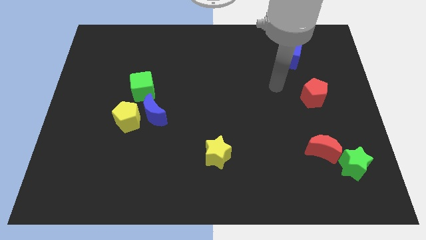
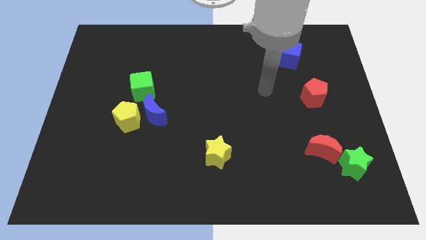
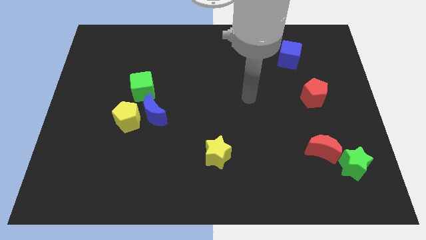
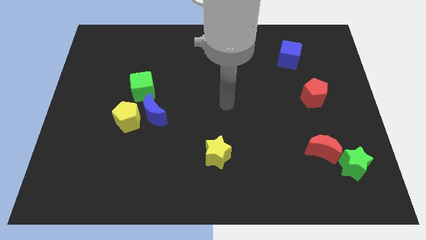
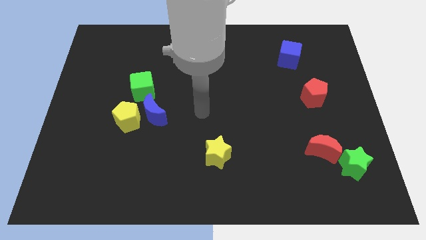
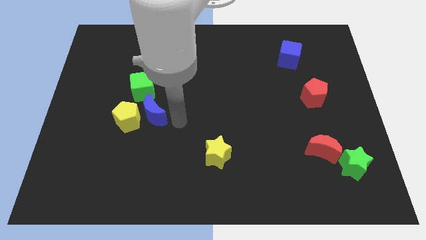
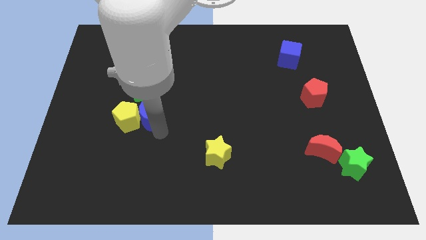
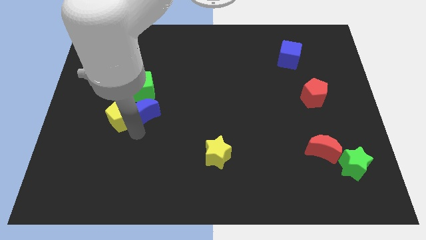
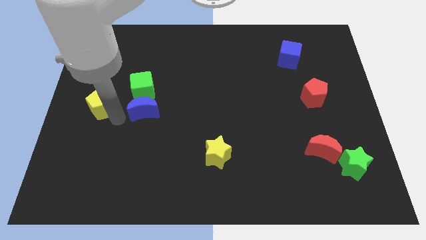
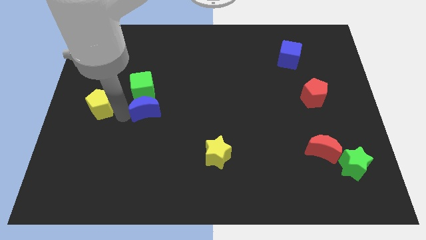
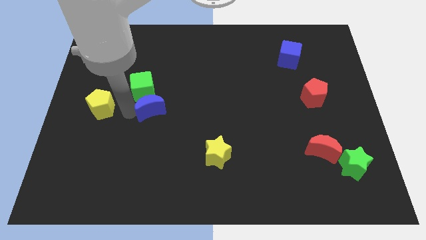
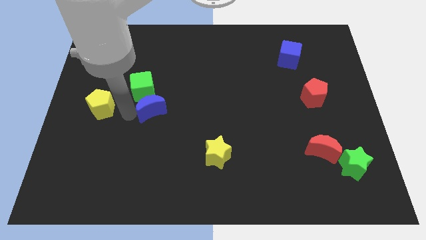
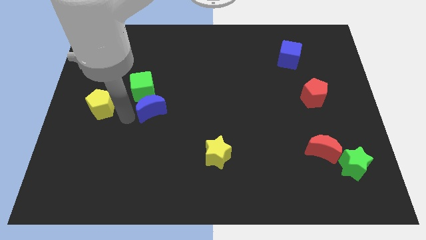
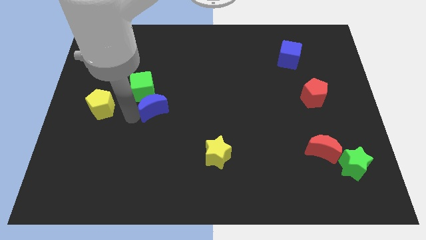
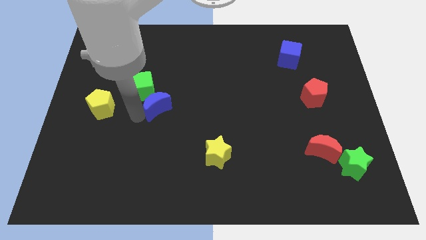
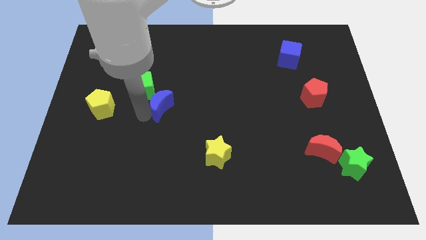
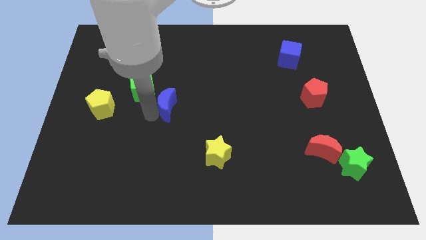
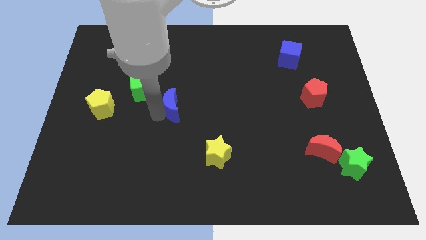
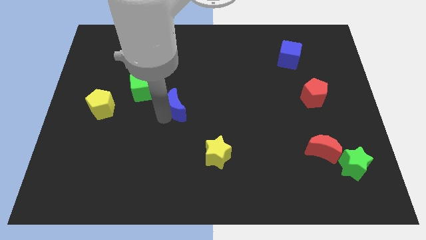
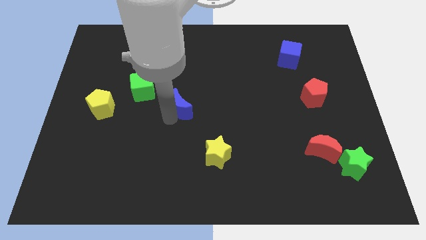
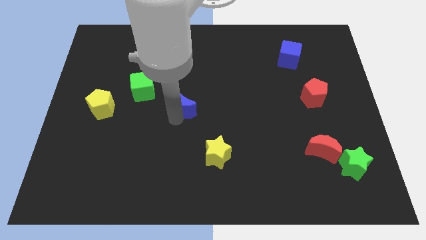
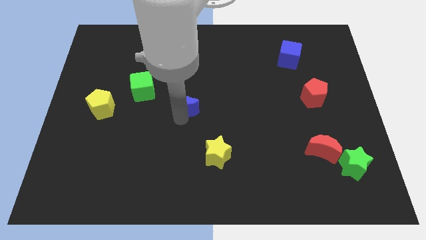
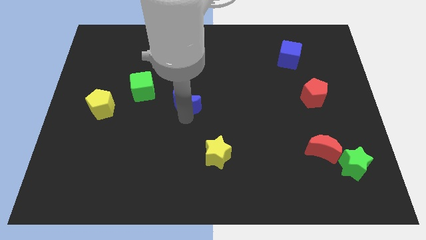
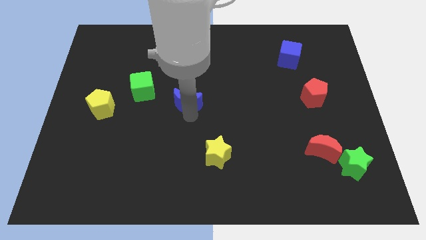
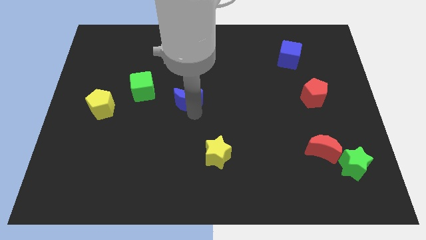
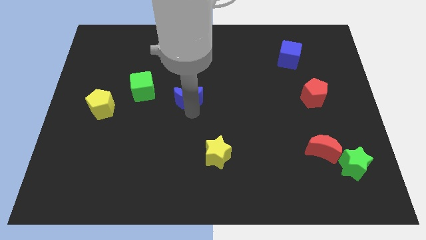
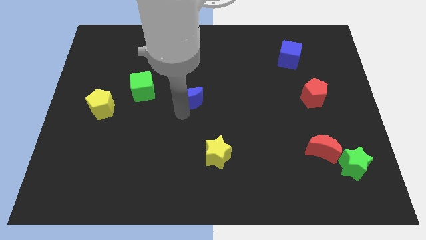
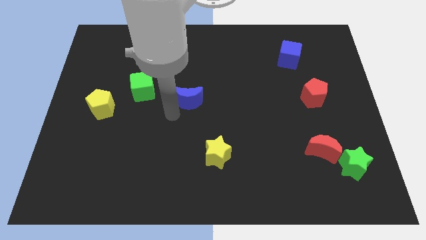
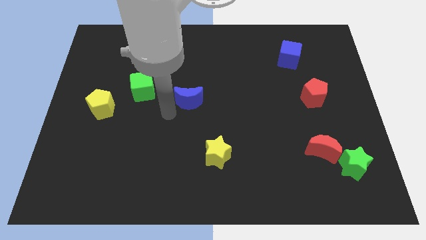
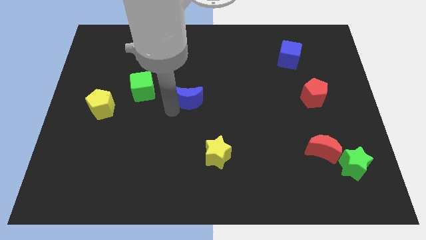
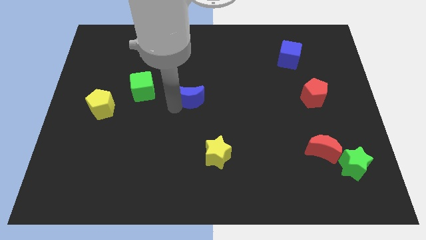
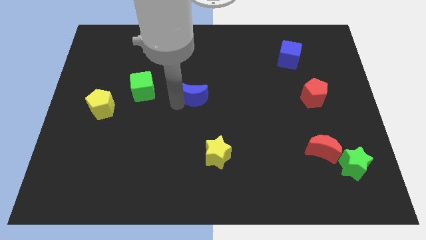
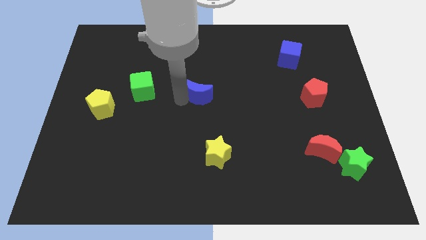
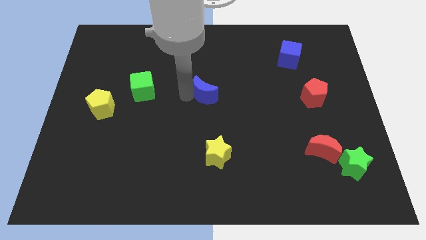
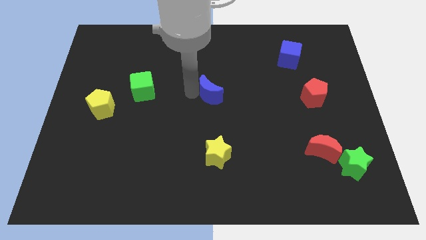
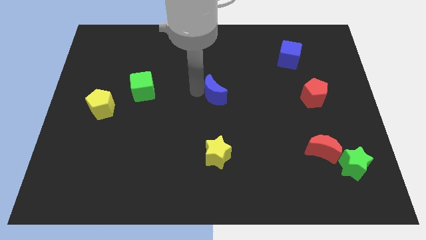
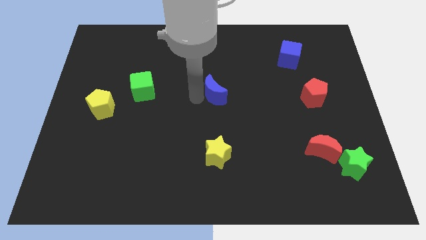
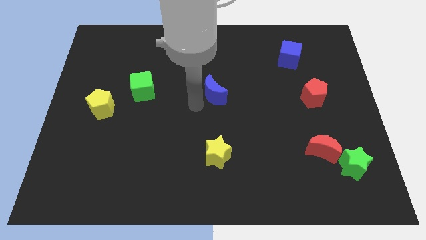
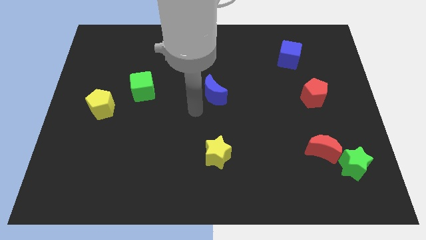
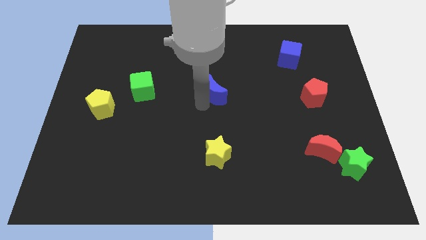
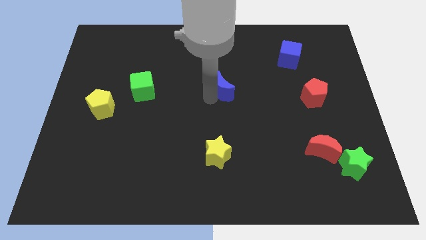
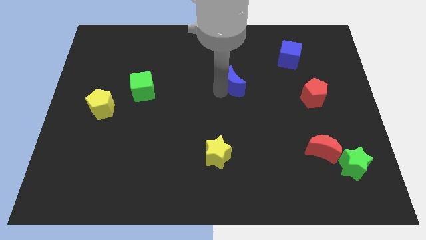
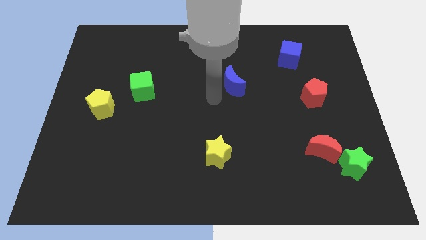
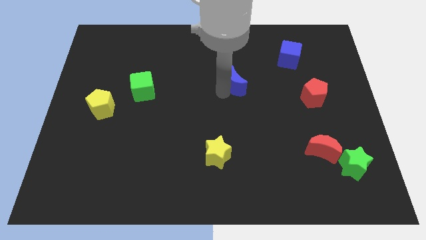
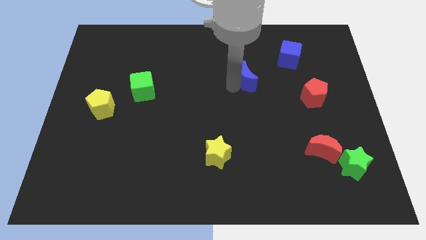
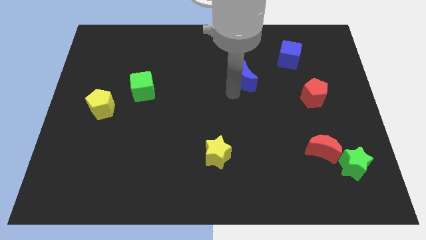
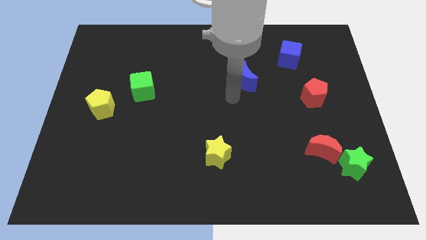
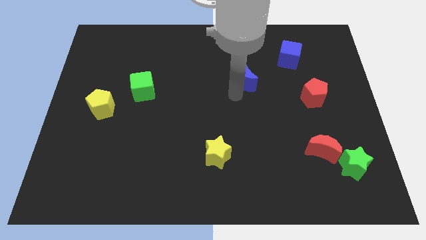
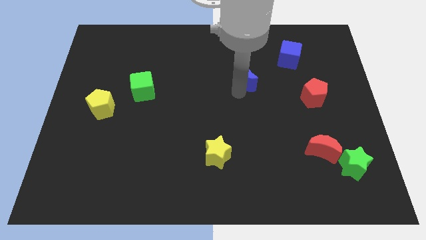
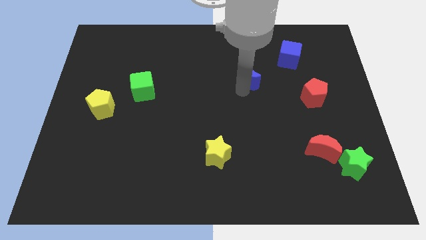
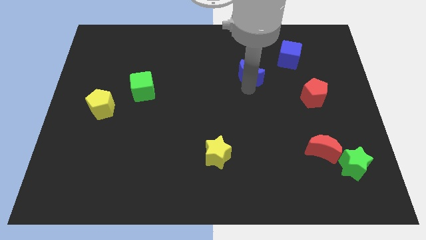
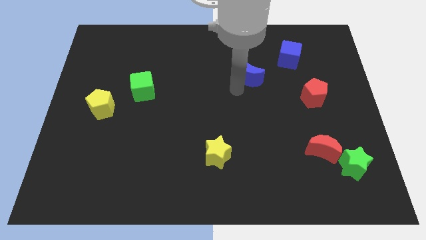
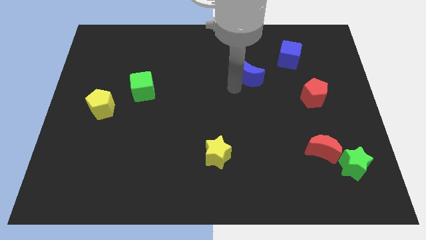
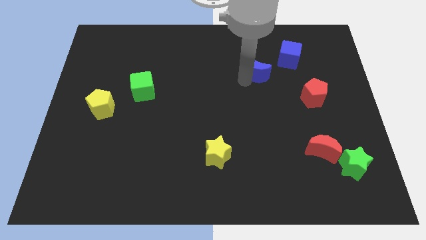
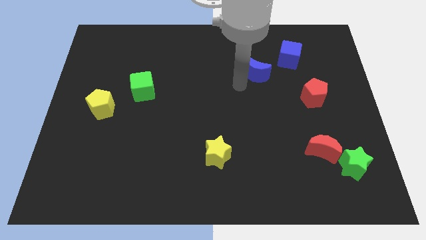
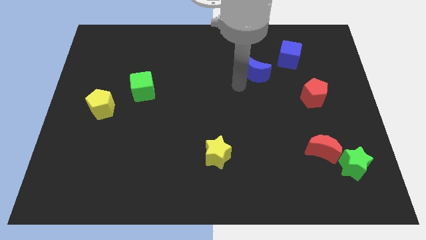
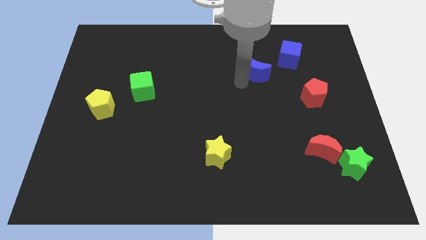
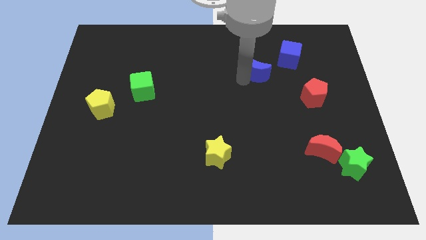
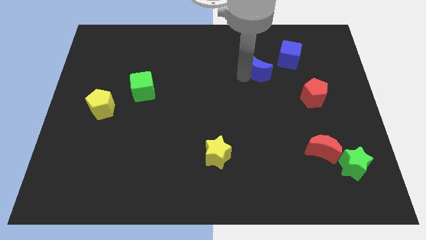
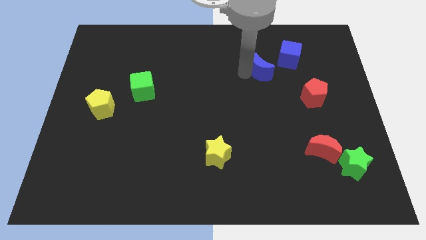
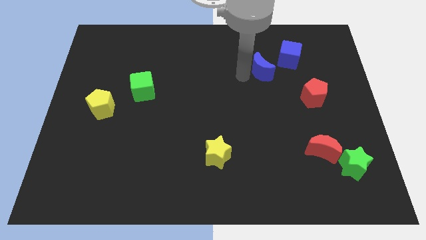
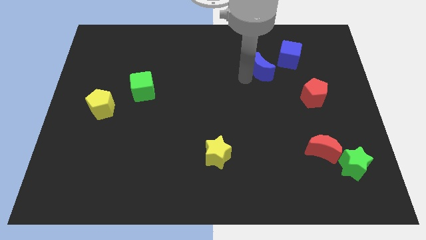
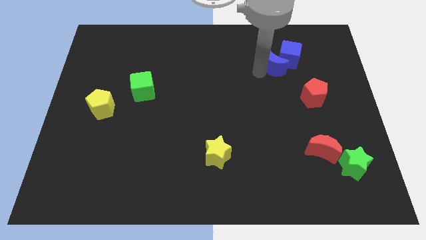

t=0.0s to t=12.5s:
slide the blue moon to the blue cube

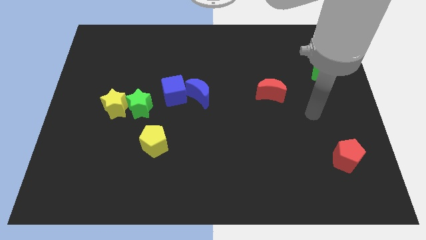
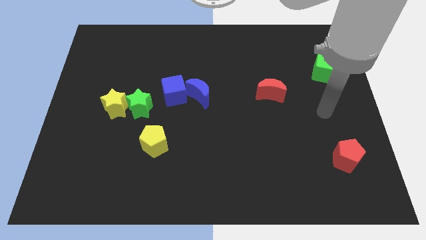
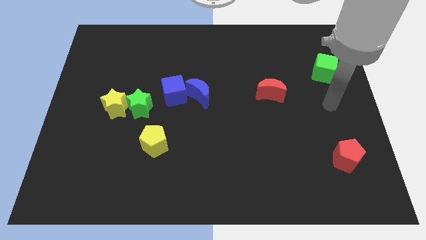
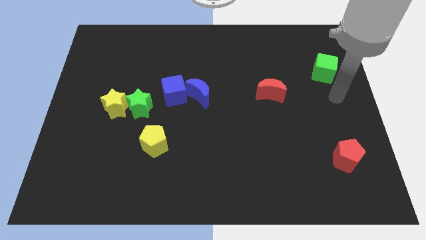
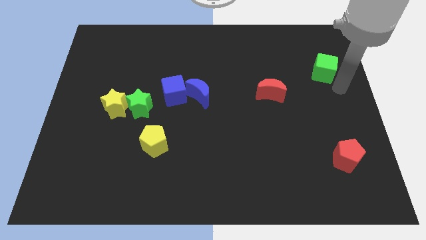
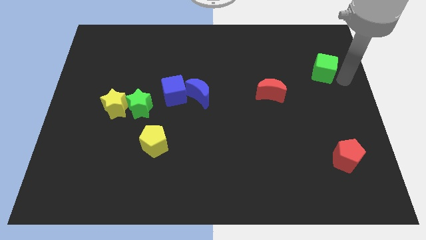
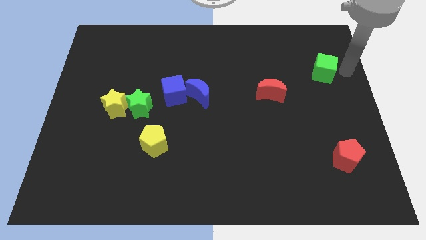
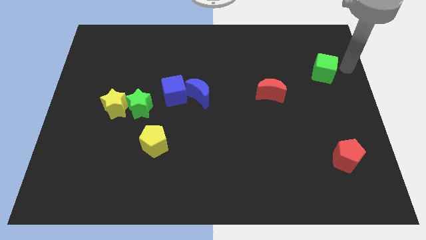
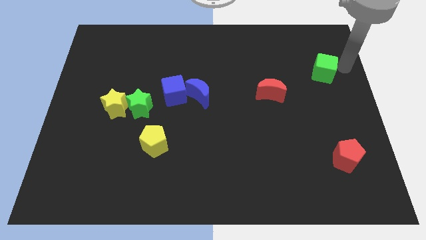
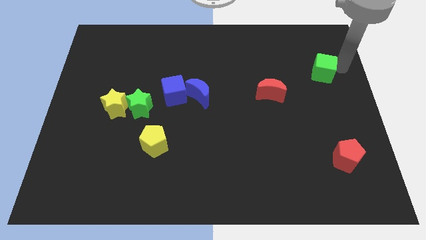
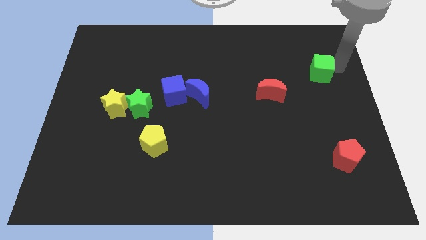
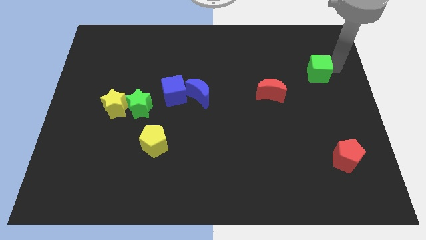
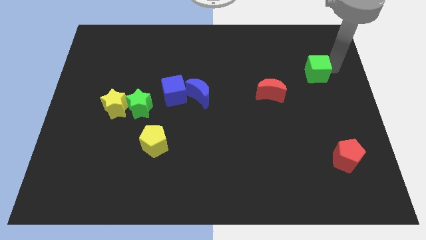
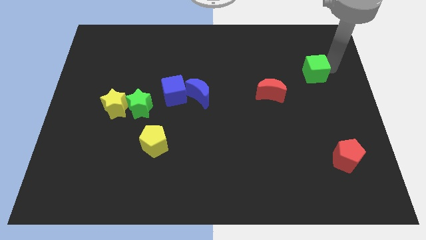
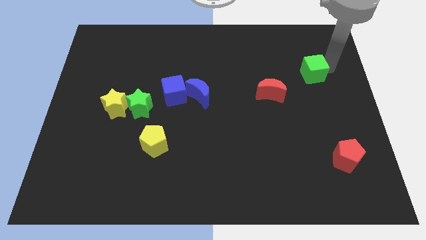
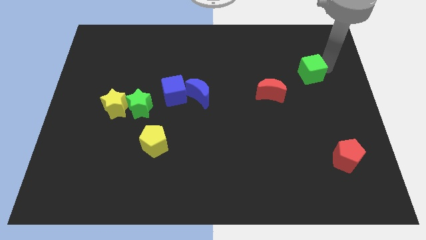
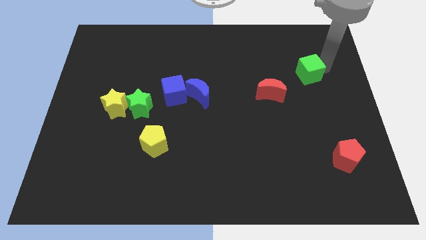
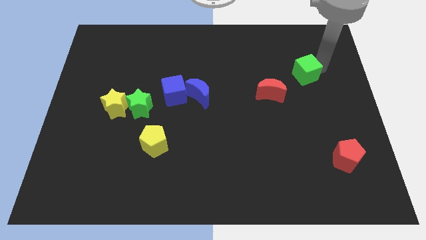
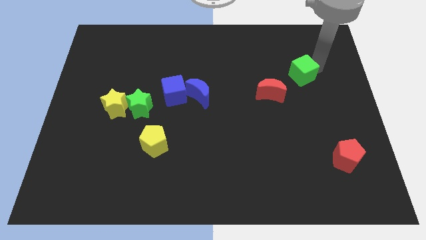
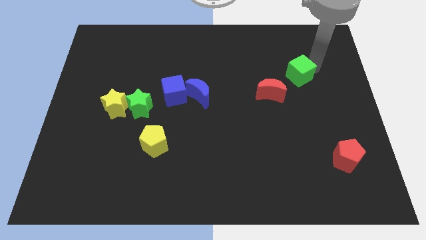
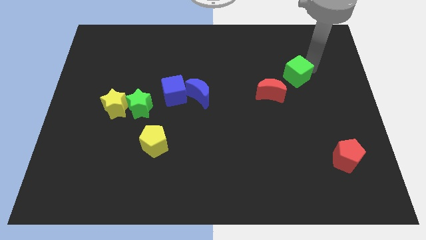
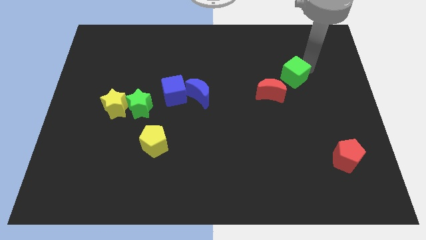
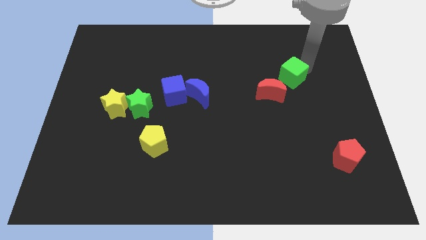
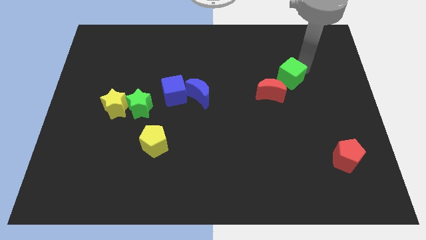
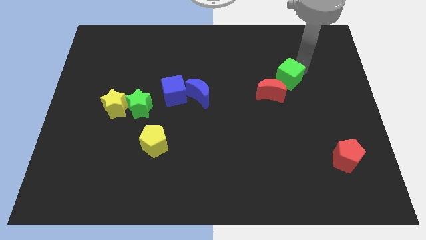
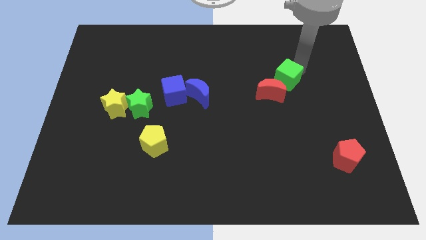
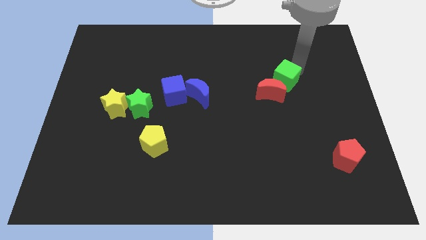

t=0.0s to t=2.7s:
put the green cube next to the red moon
